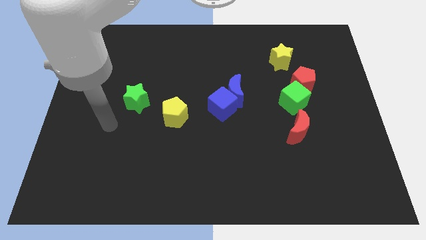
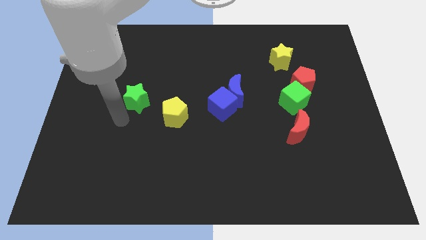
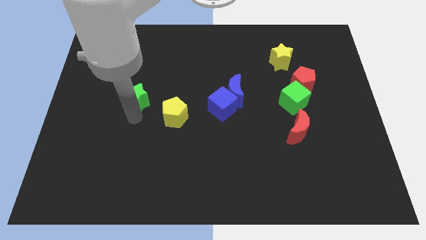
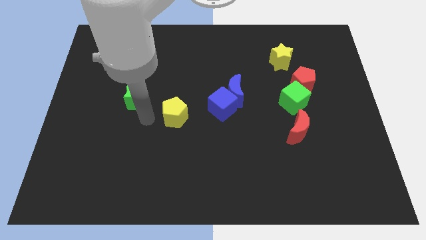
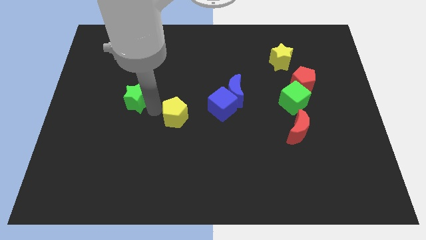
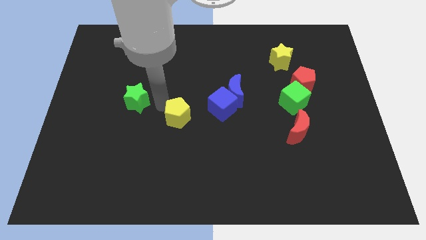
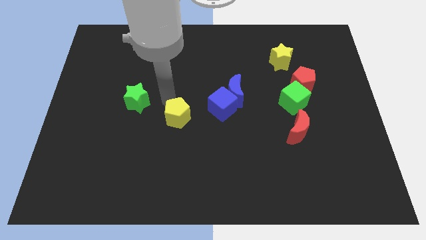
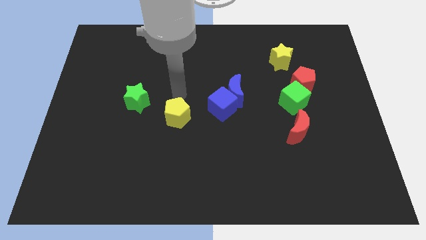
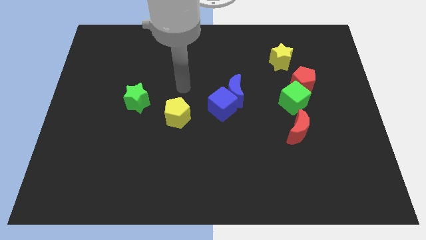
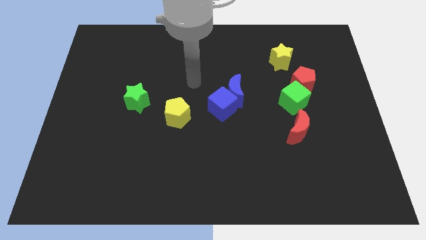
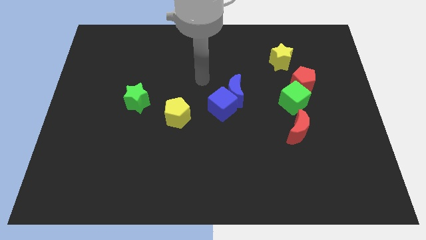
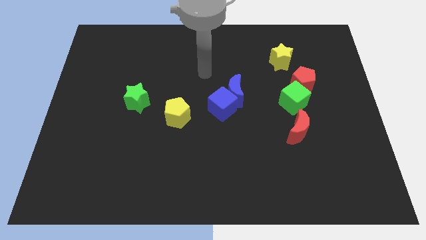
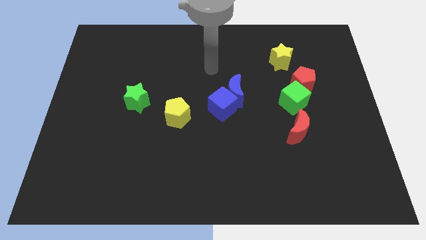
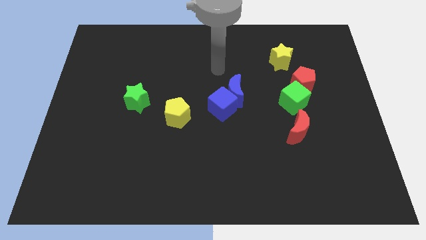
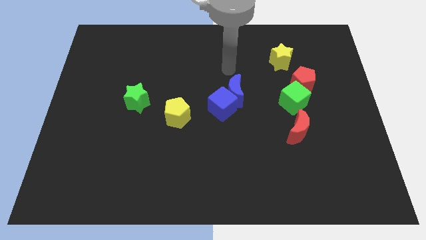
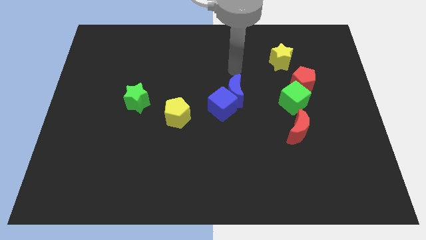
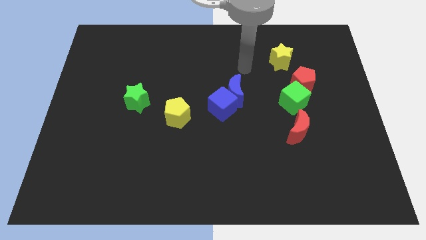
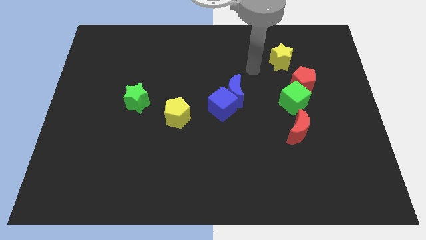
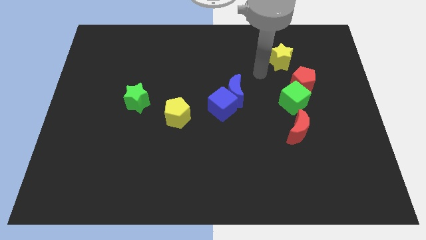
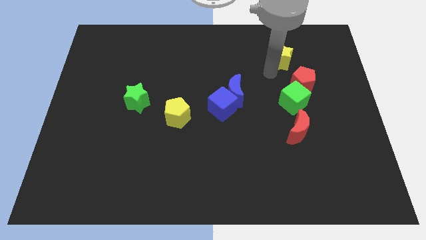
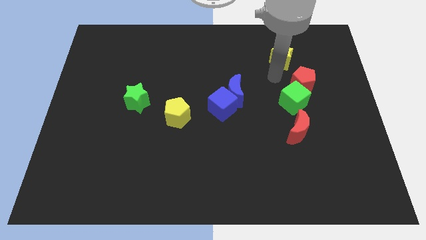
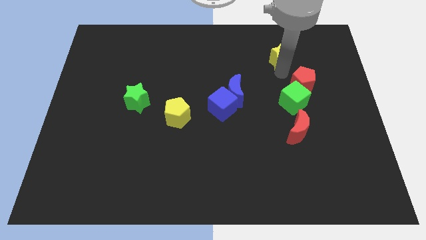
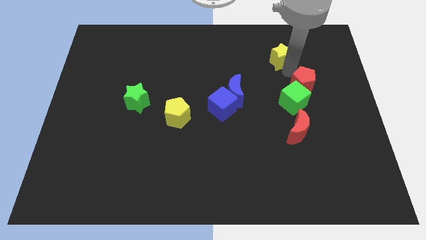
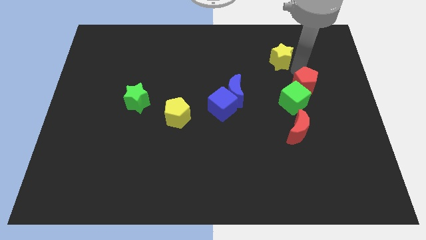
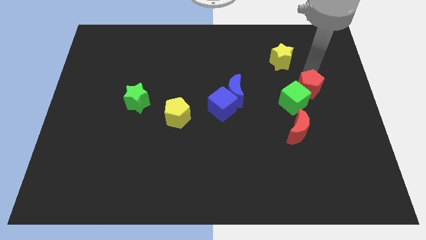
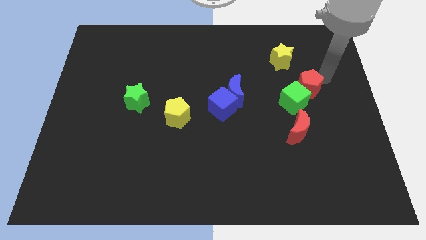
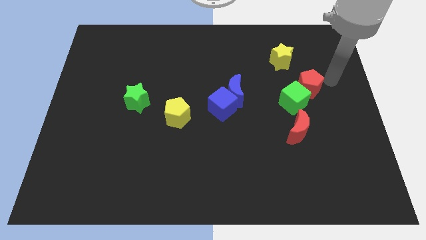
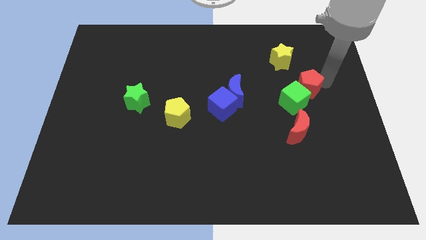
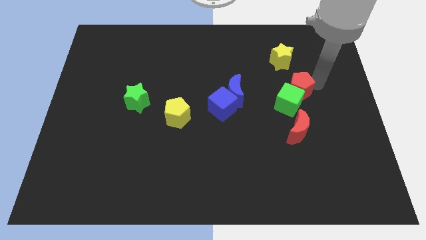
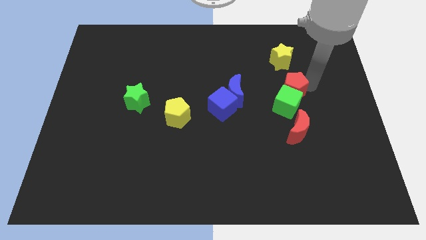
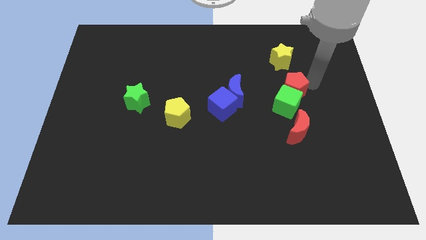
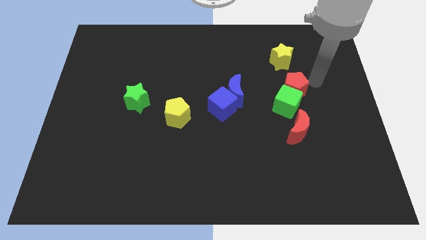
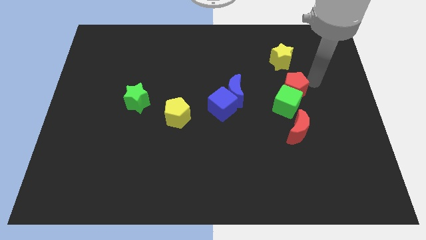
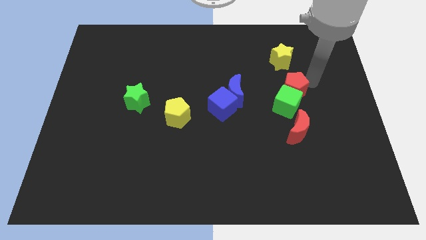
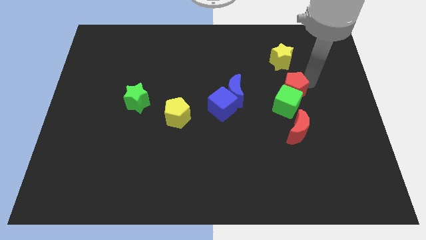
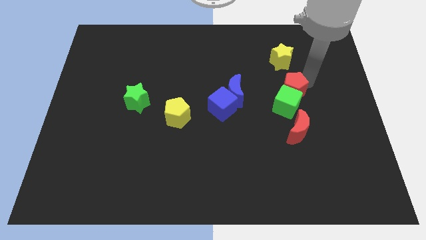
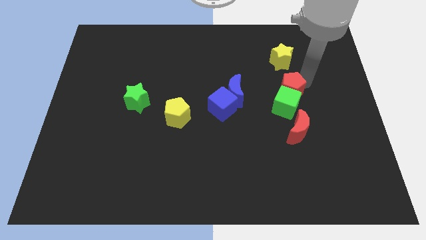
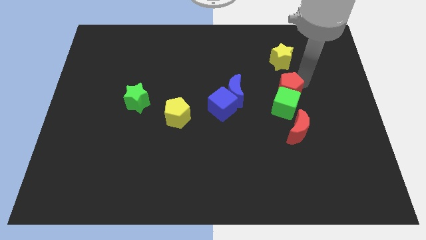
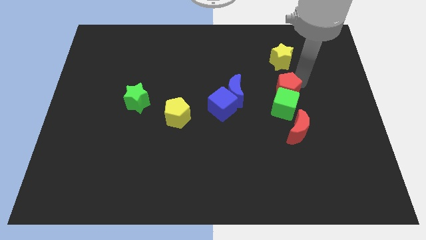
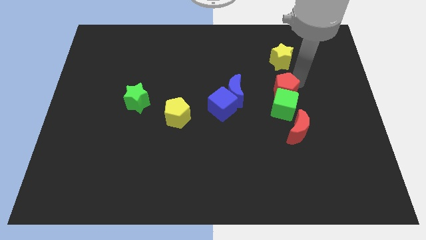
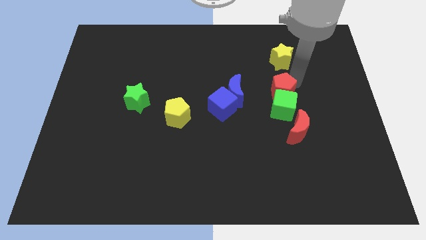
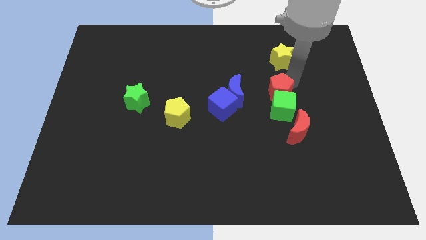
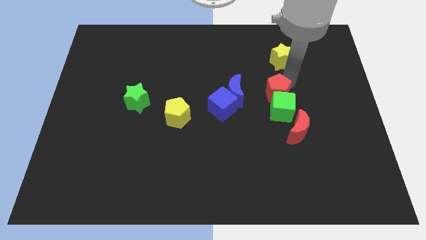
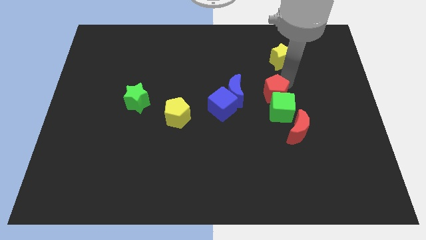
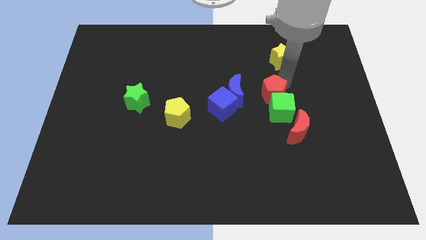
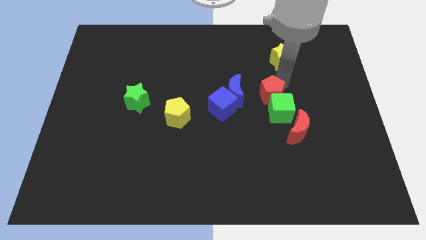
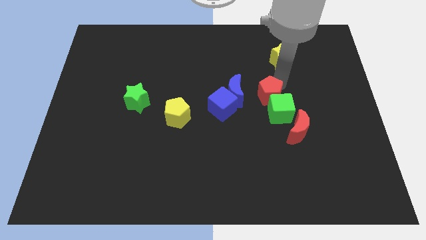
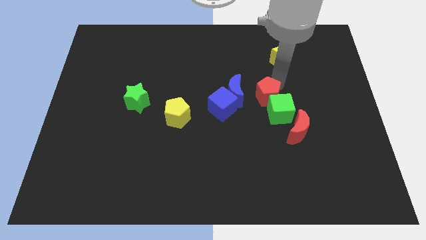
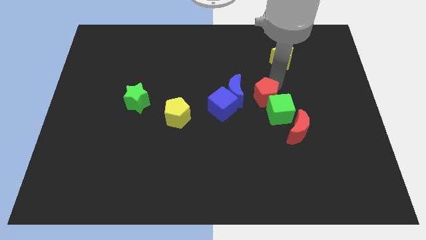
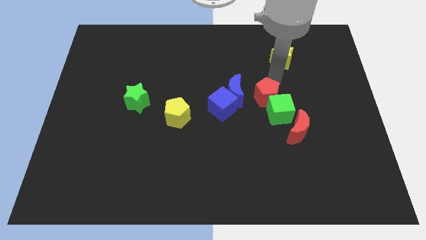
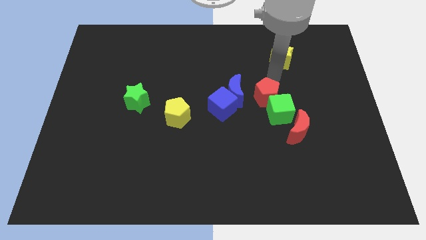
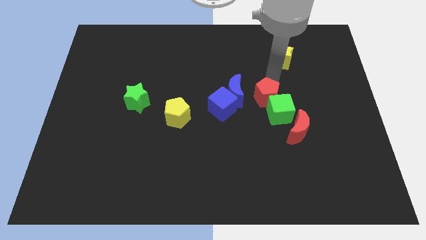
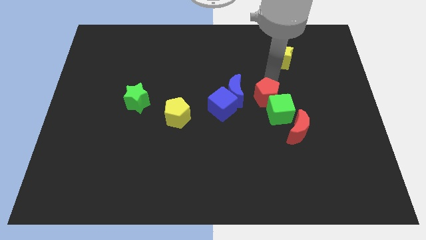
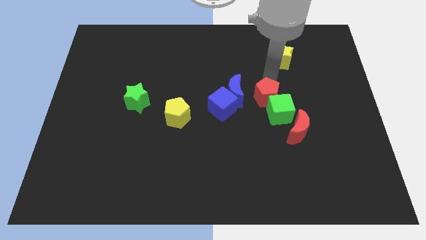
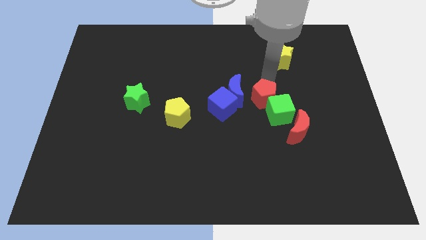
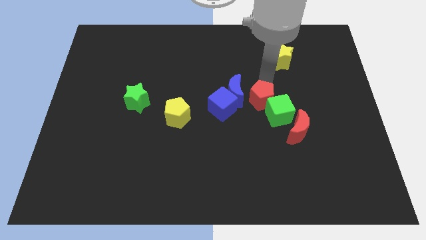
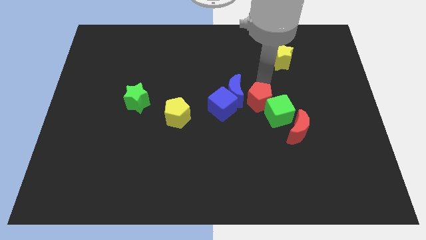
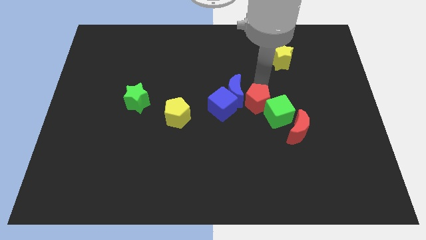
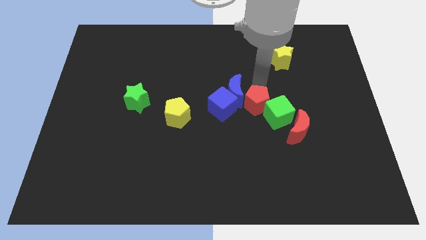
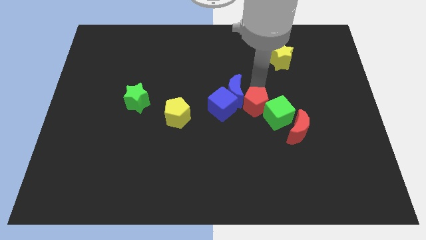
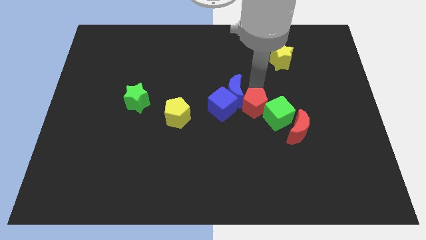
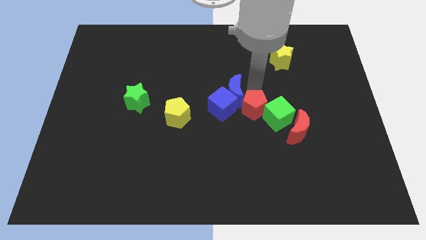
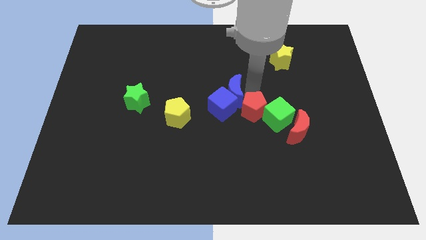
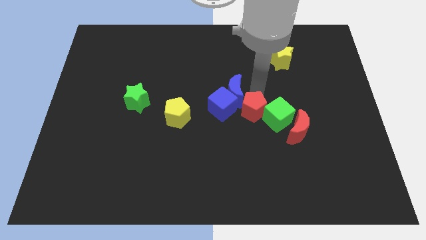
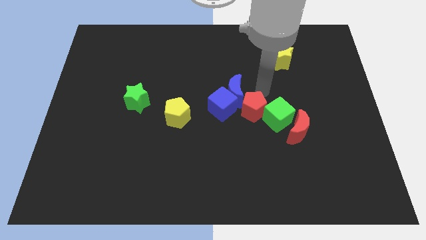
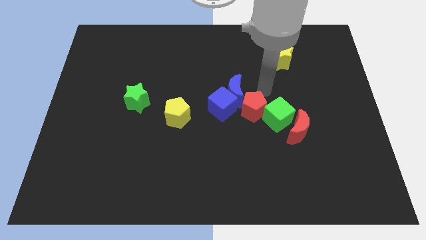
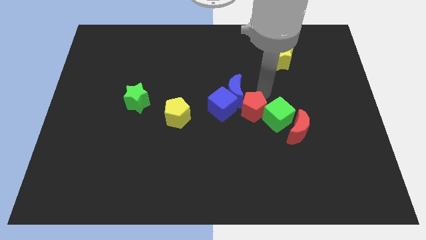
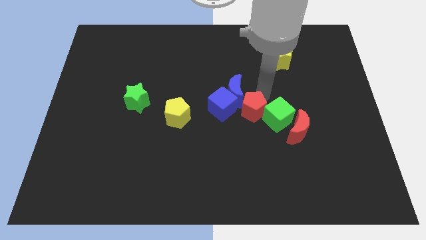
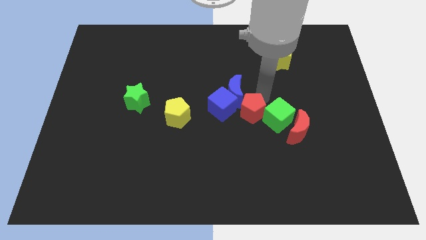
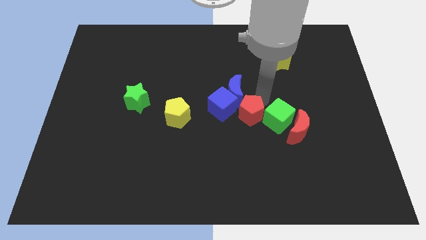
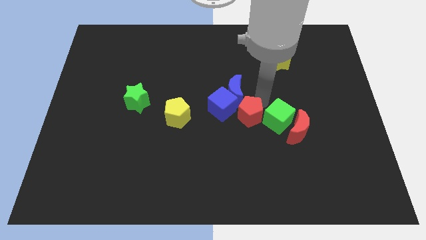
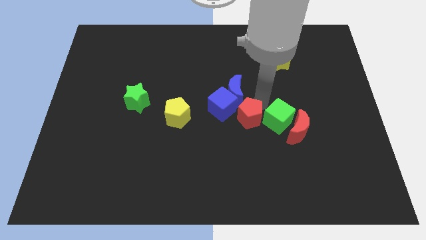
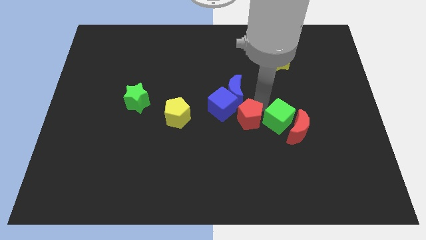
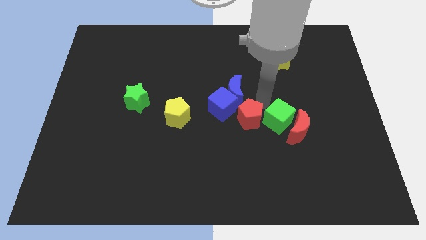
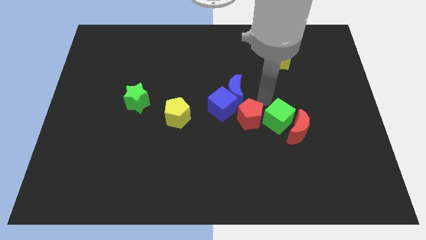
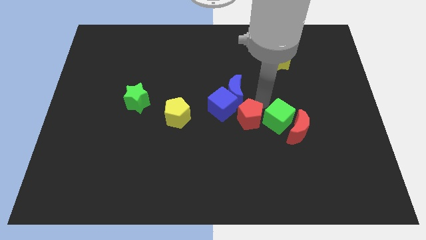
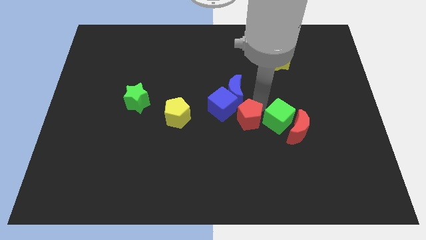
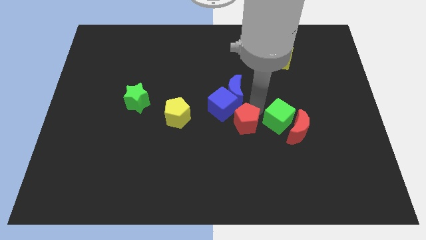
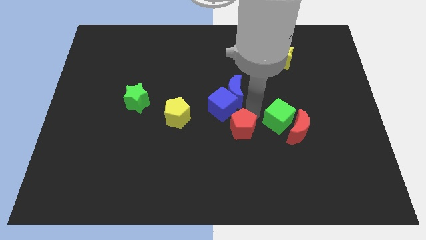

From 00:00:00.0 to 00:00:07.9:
push the red pentagon down and left diagonally

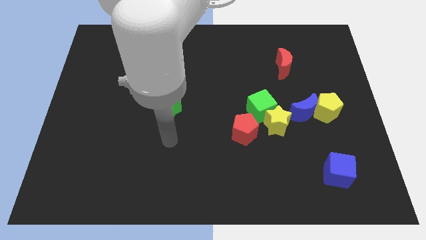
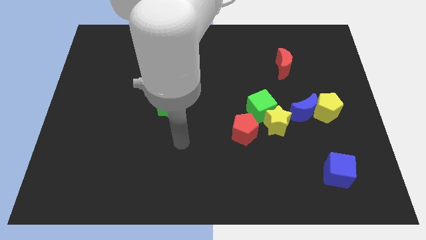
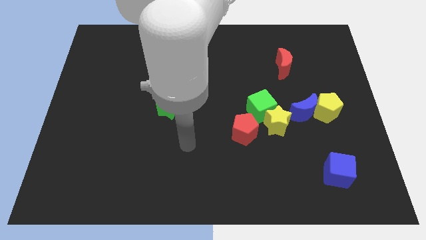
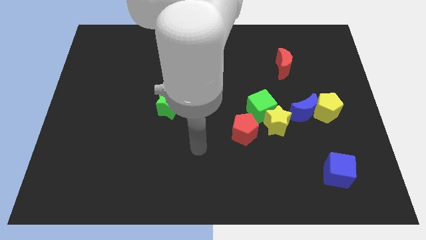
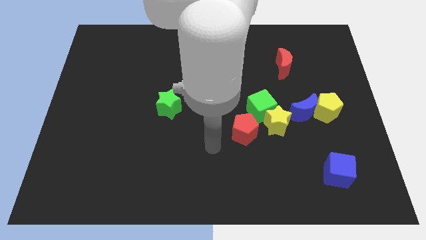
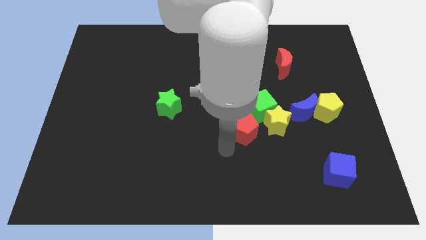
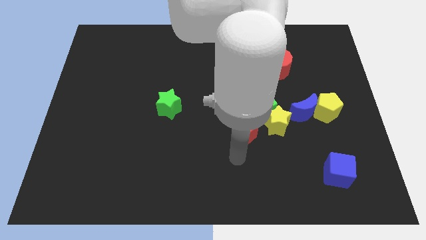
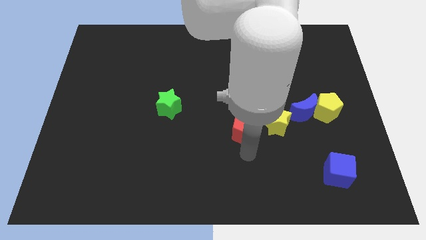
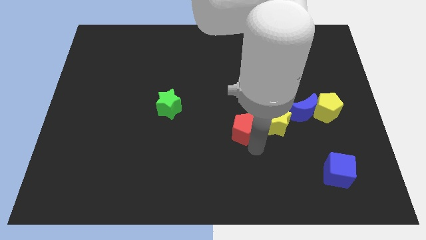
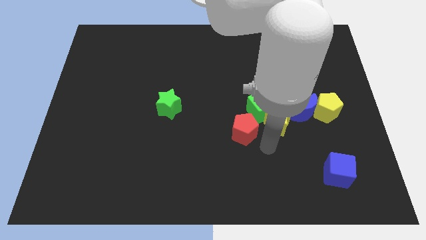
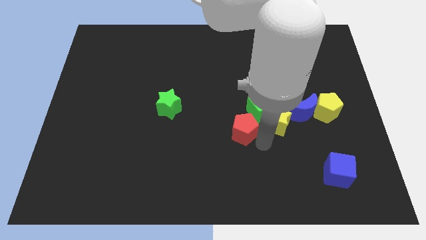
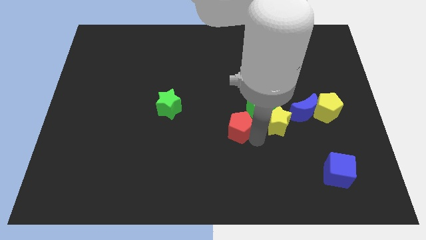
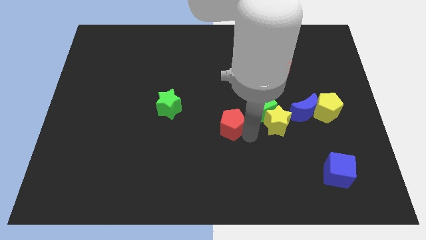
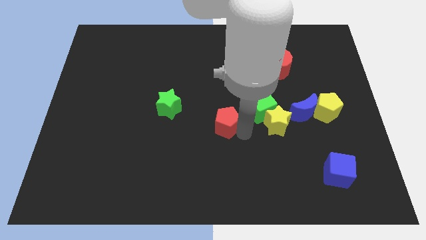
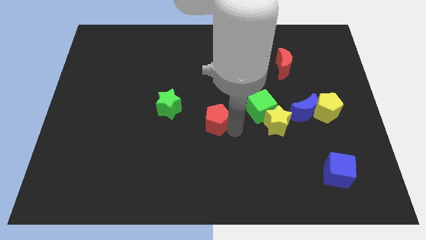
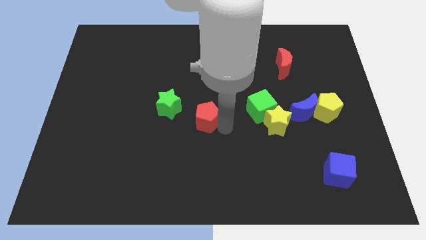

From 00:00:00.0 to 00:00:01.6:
push the red pentagon a little upwards and to the left
